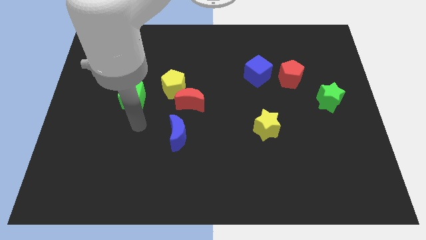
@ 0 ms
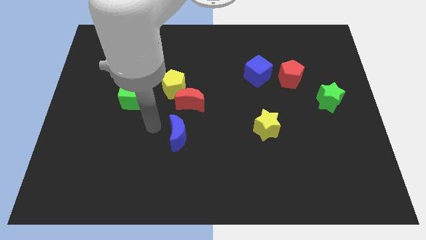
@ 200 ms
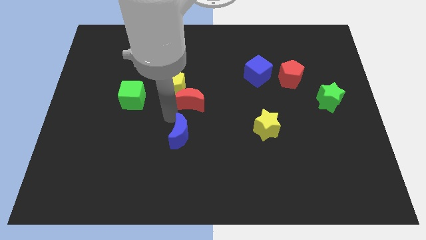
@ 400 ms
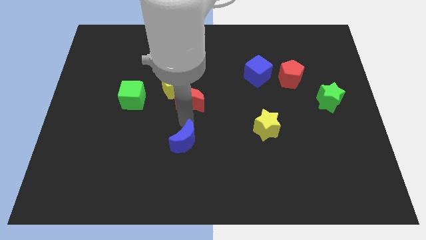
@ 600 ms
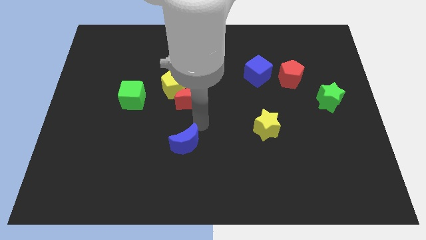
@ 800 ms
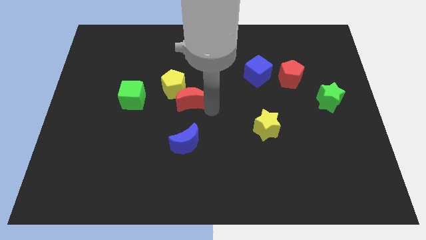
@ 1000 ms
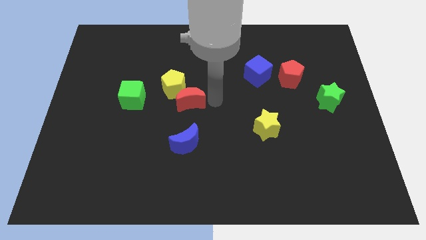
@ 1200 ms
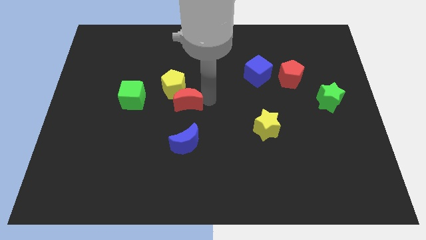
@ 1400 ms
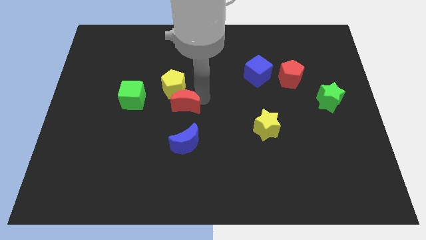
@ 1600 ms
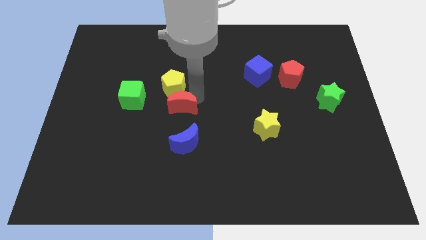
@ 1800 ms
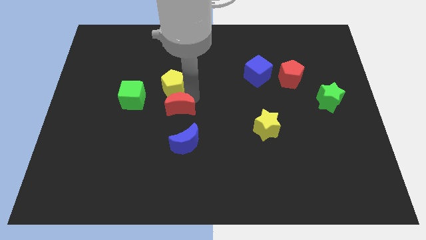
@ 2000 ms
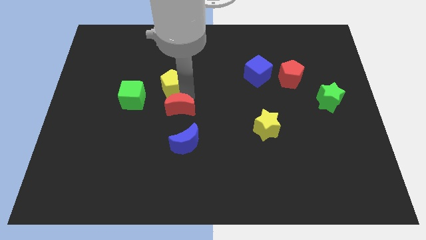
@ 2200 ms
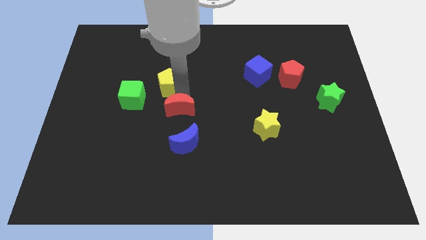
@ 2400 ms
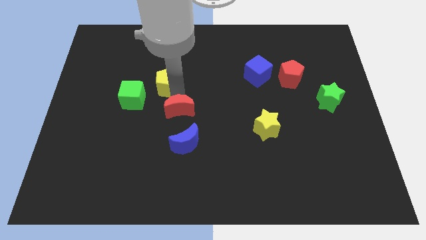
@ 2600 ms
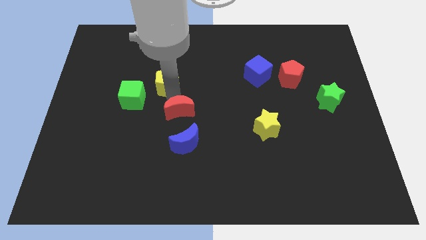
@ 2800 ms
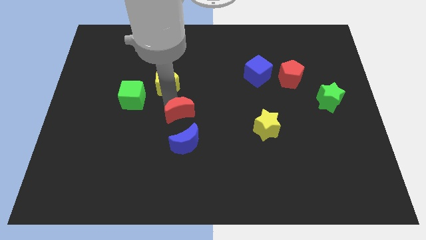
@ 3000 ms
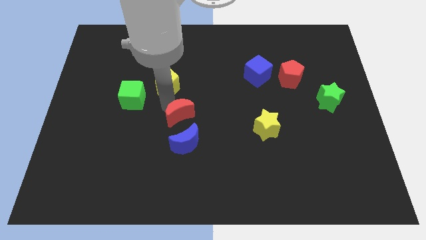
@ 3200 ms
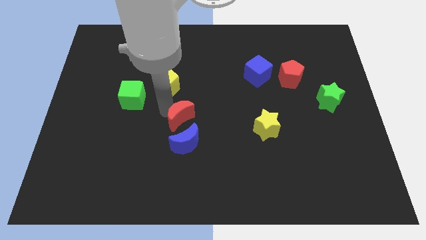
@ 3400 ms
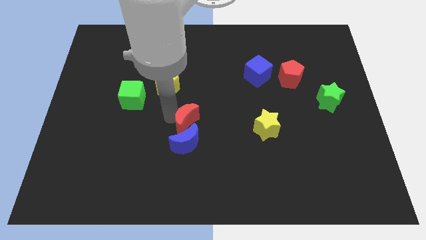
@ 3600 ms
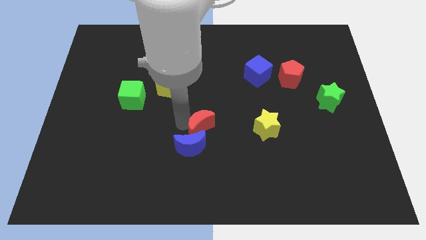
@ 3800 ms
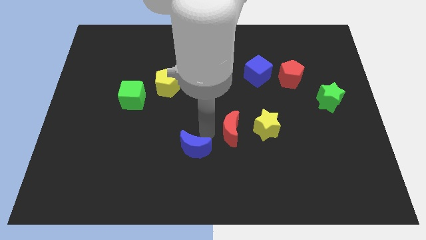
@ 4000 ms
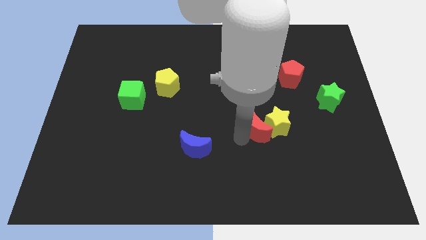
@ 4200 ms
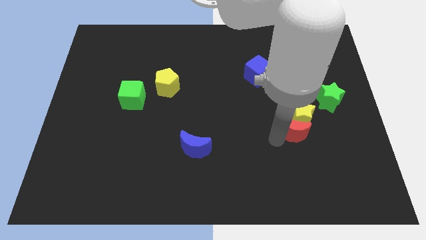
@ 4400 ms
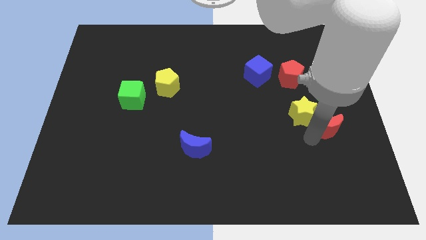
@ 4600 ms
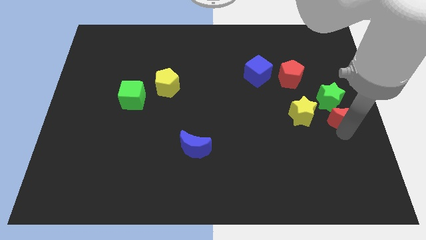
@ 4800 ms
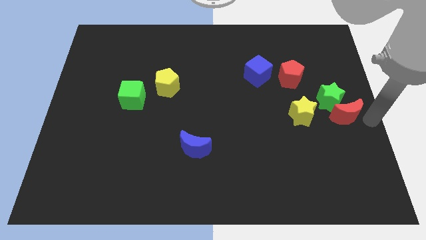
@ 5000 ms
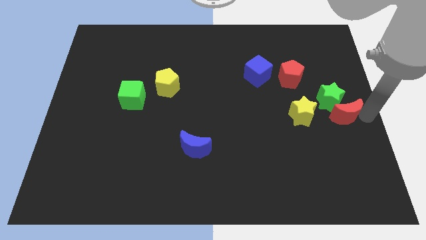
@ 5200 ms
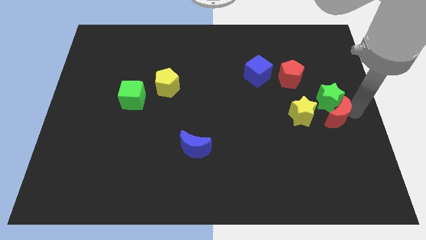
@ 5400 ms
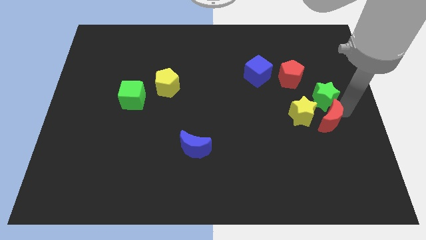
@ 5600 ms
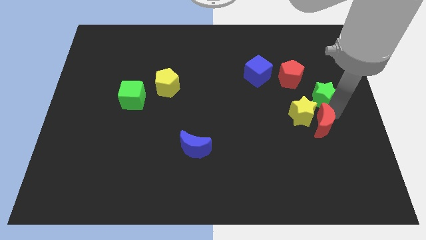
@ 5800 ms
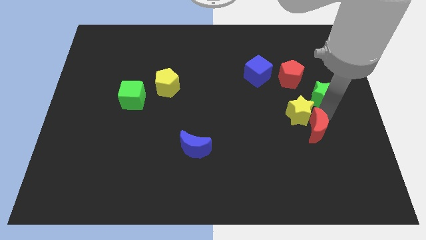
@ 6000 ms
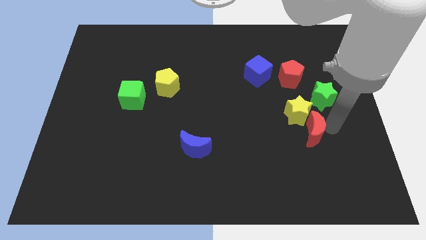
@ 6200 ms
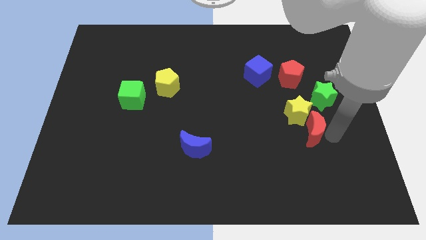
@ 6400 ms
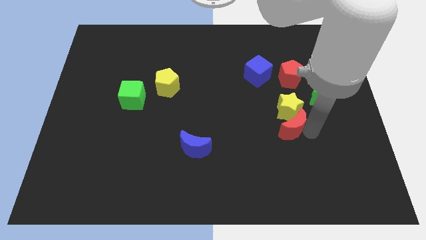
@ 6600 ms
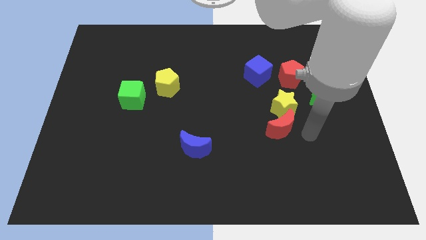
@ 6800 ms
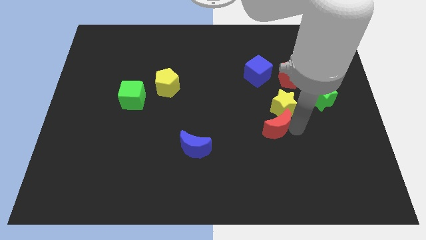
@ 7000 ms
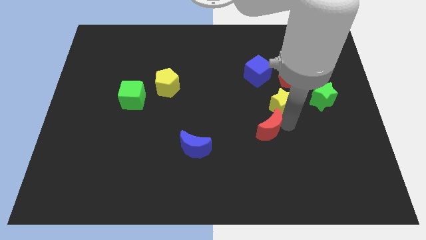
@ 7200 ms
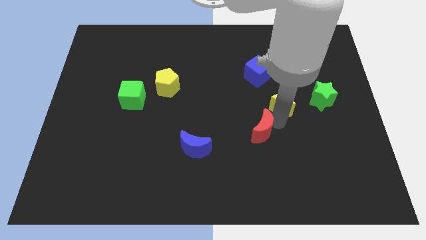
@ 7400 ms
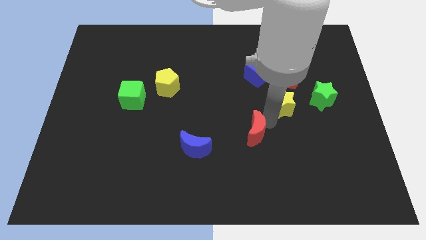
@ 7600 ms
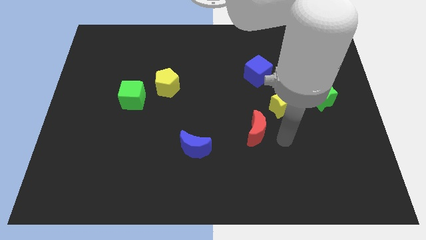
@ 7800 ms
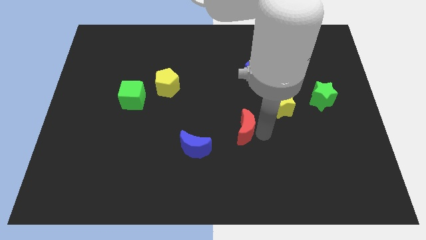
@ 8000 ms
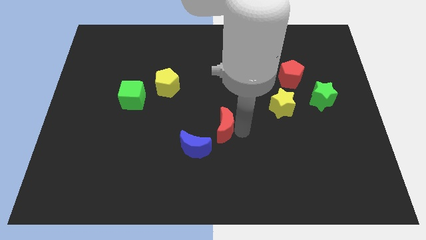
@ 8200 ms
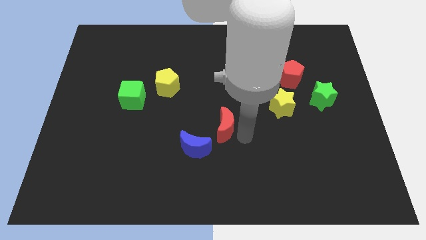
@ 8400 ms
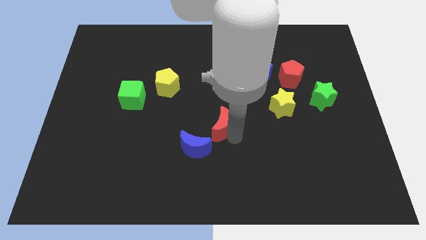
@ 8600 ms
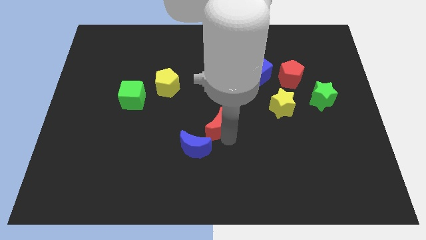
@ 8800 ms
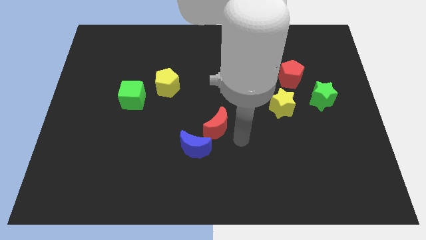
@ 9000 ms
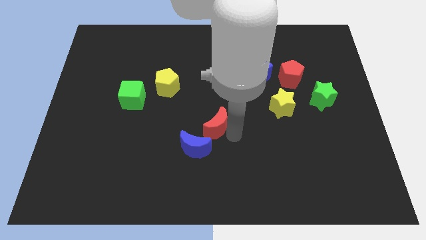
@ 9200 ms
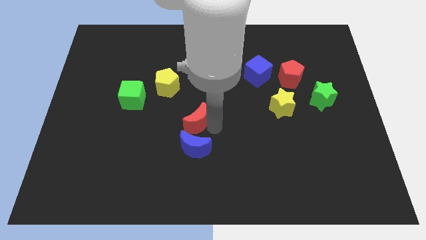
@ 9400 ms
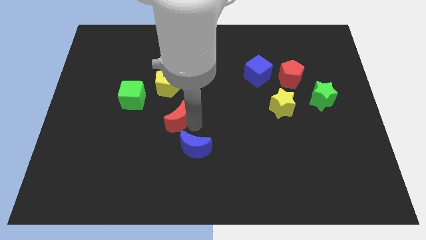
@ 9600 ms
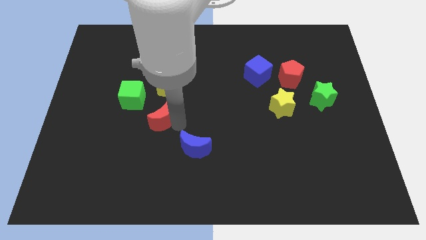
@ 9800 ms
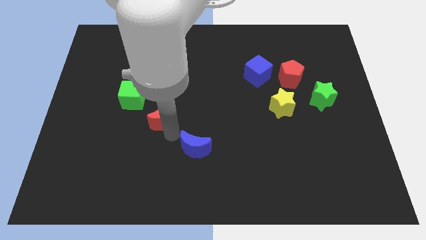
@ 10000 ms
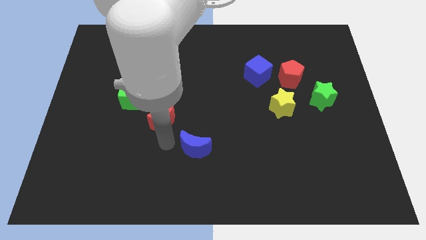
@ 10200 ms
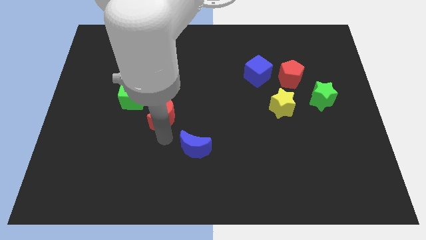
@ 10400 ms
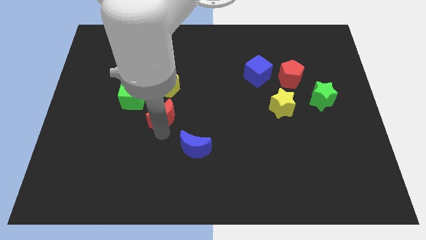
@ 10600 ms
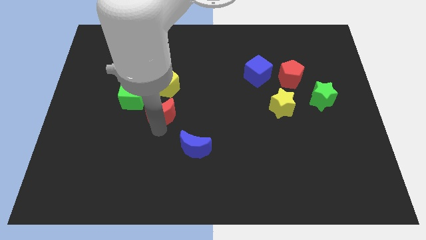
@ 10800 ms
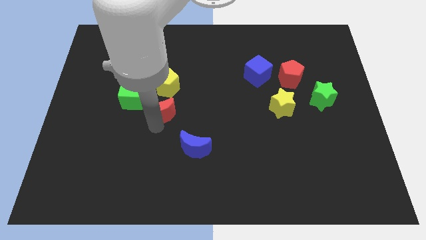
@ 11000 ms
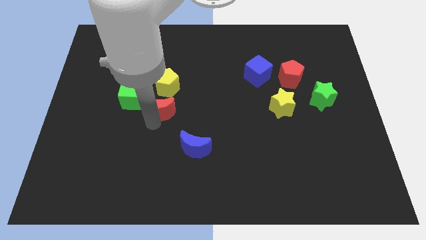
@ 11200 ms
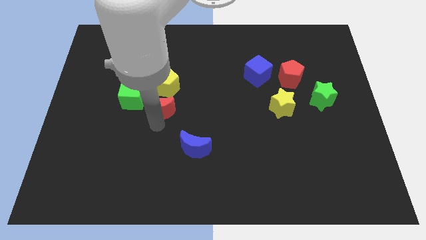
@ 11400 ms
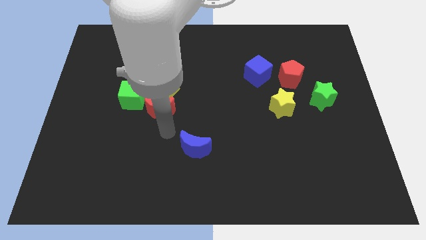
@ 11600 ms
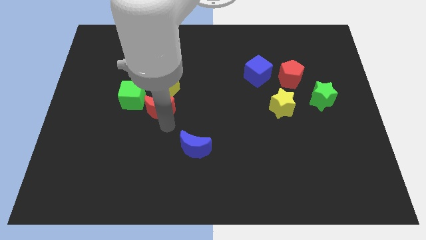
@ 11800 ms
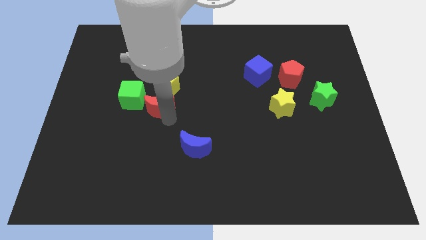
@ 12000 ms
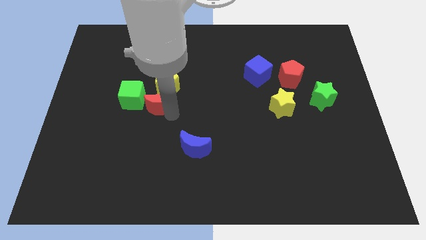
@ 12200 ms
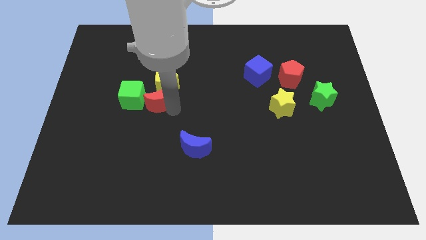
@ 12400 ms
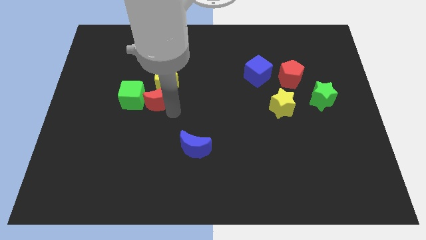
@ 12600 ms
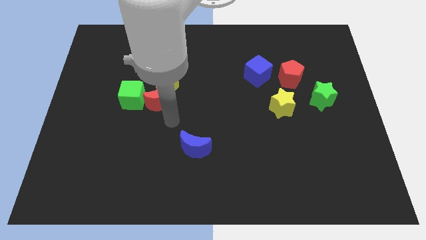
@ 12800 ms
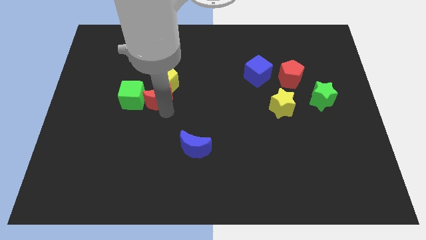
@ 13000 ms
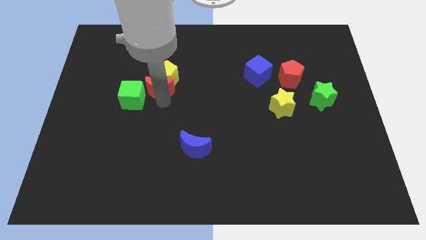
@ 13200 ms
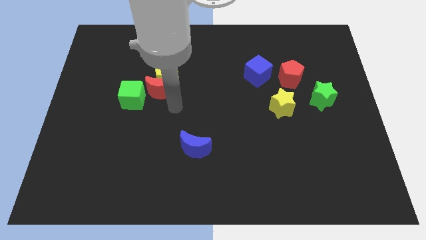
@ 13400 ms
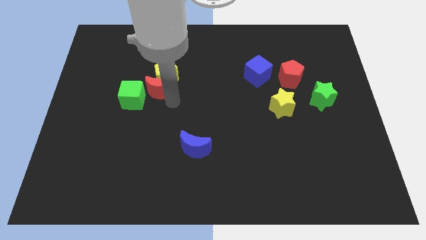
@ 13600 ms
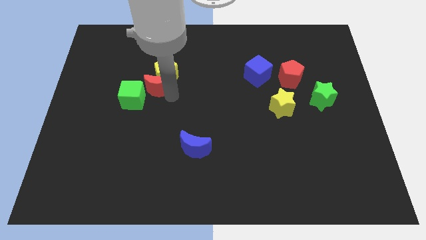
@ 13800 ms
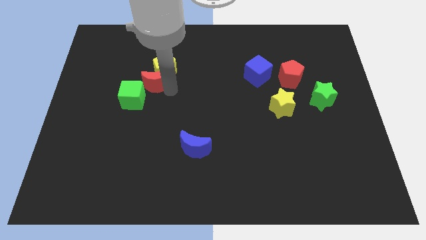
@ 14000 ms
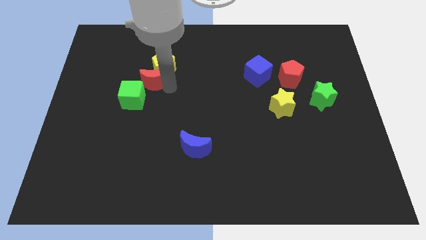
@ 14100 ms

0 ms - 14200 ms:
push the red moon to the top of the green cube

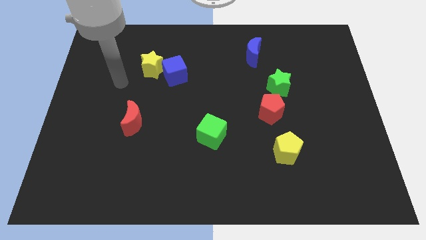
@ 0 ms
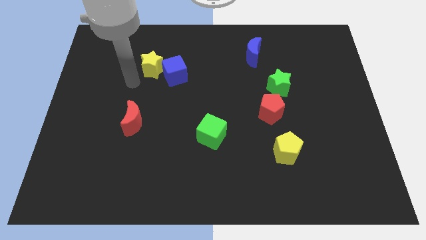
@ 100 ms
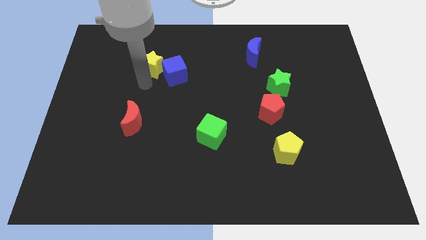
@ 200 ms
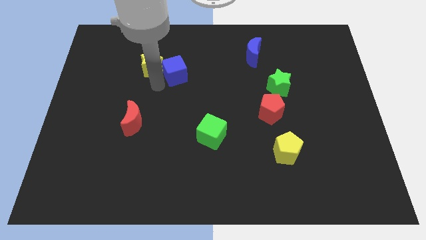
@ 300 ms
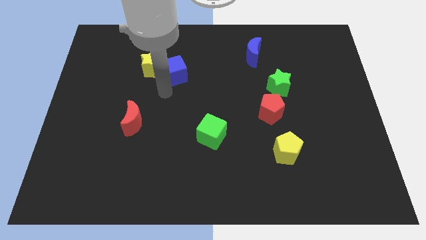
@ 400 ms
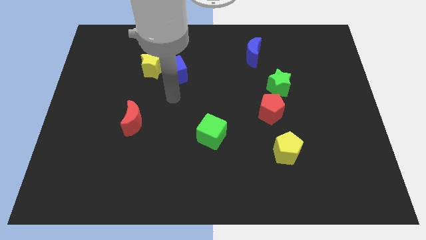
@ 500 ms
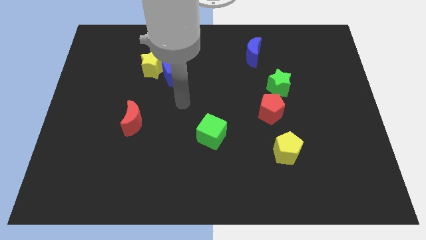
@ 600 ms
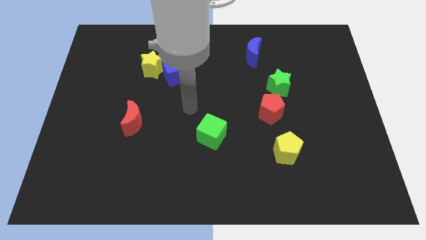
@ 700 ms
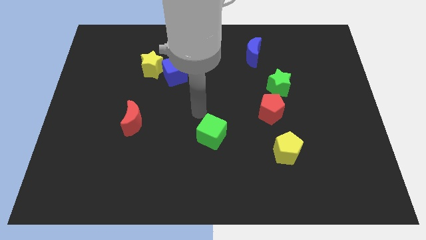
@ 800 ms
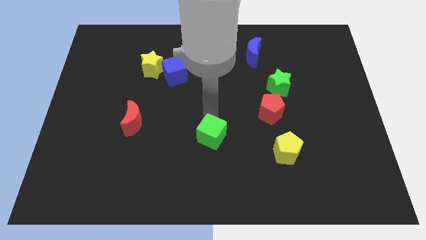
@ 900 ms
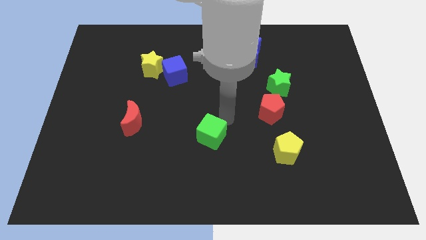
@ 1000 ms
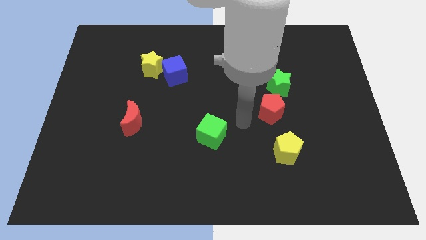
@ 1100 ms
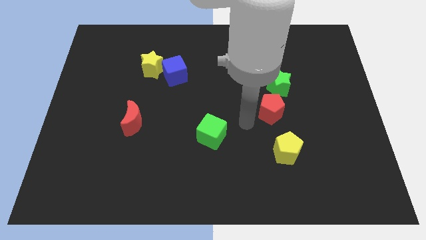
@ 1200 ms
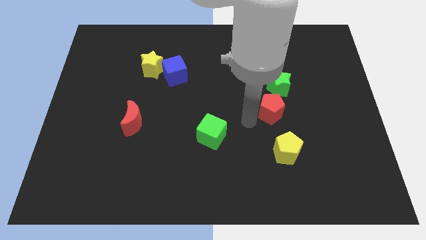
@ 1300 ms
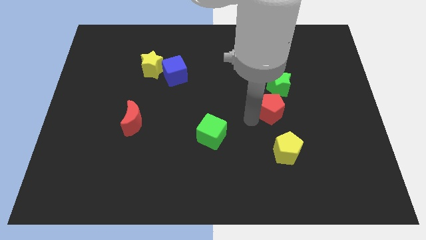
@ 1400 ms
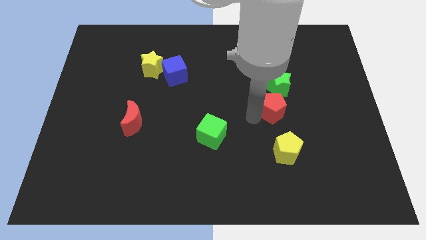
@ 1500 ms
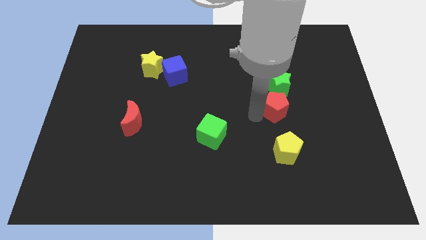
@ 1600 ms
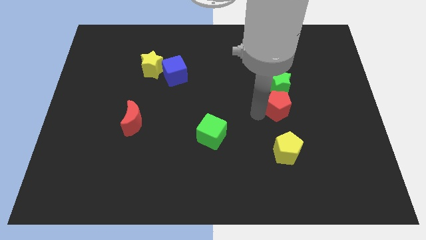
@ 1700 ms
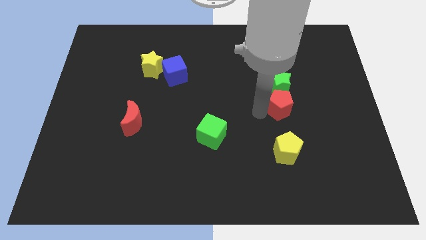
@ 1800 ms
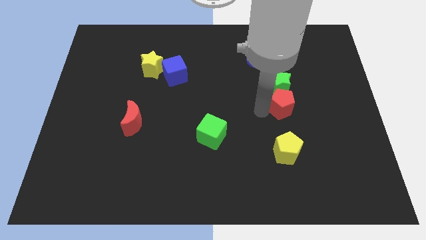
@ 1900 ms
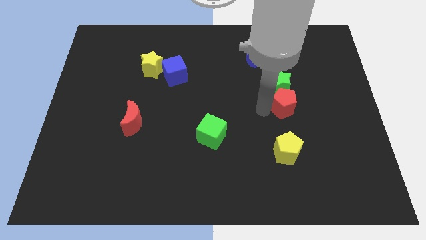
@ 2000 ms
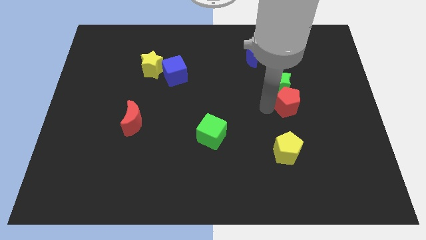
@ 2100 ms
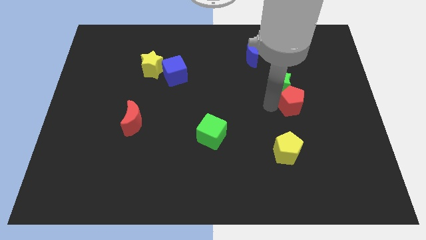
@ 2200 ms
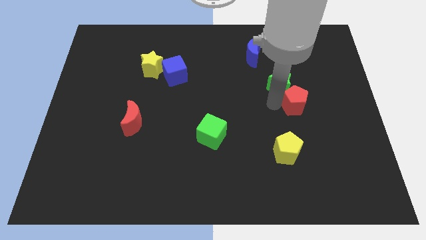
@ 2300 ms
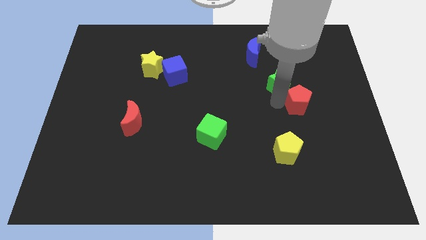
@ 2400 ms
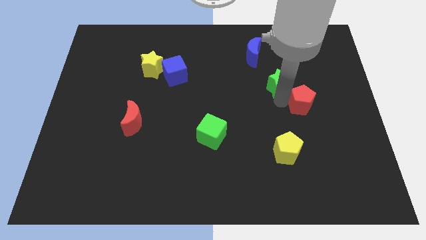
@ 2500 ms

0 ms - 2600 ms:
put the red pentagon right of the green star
